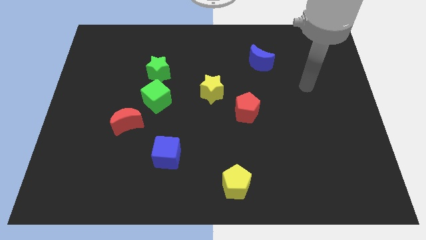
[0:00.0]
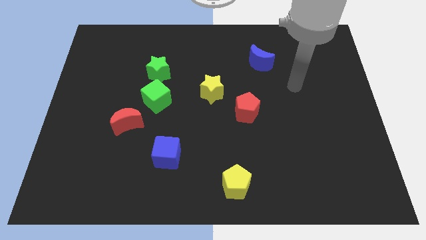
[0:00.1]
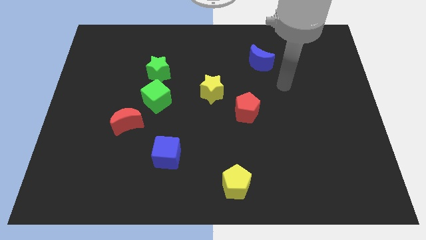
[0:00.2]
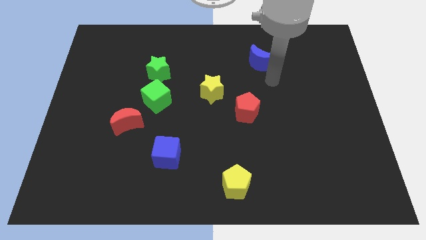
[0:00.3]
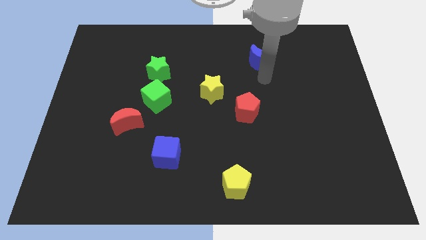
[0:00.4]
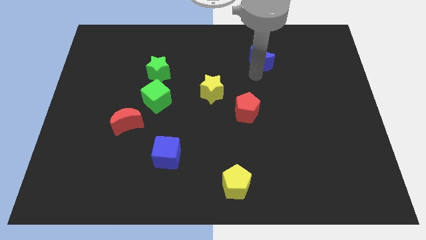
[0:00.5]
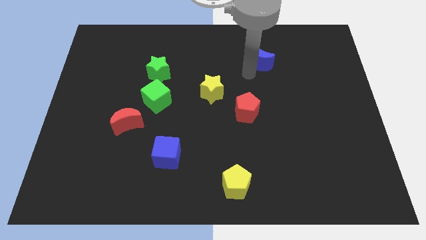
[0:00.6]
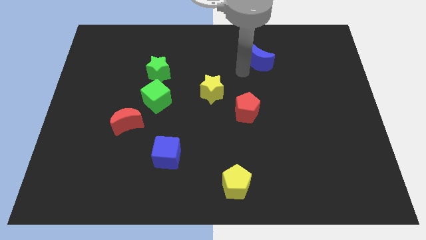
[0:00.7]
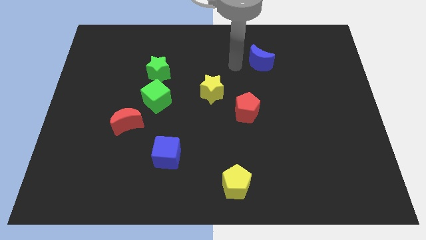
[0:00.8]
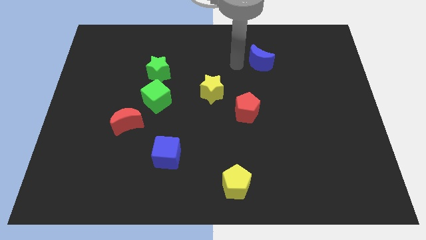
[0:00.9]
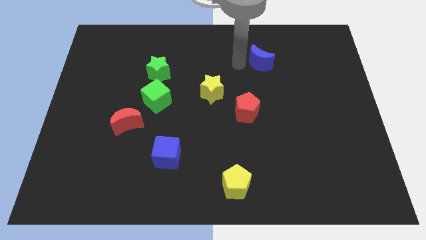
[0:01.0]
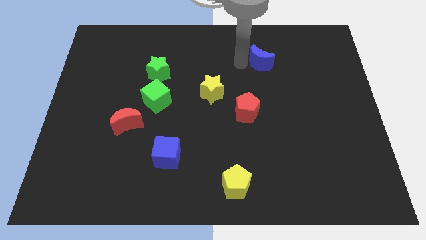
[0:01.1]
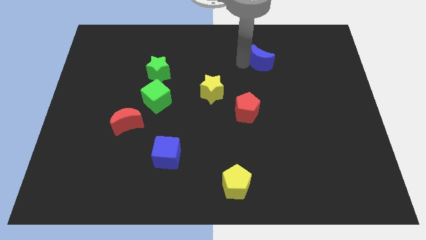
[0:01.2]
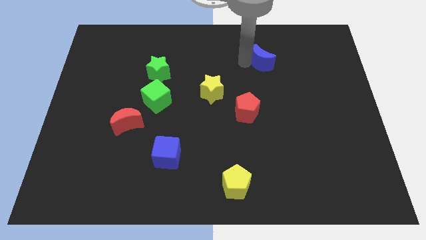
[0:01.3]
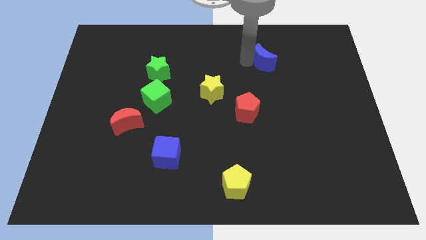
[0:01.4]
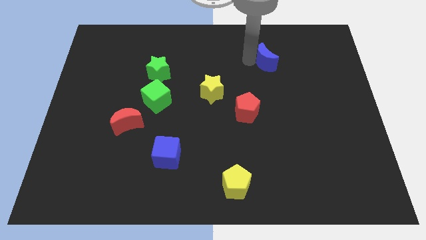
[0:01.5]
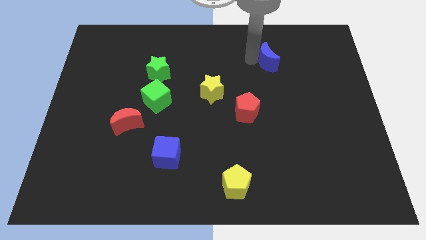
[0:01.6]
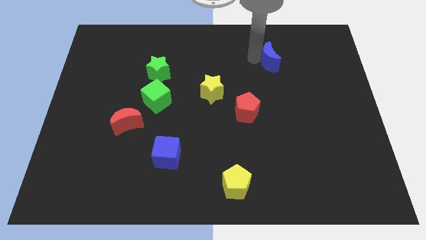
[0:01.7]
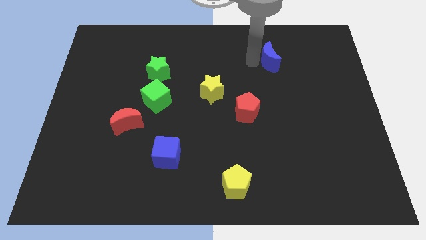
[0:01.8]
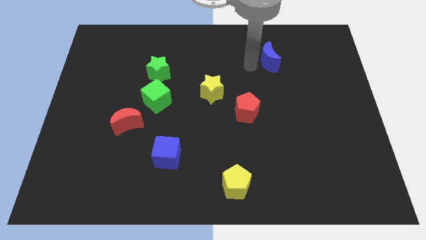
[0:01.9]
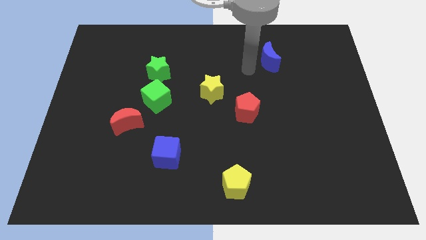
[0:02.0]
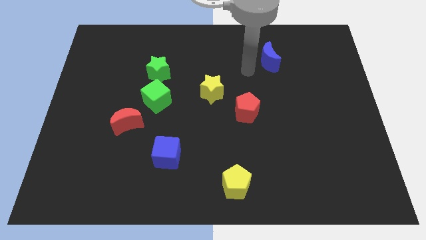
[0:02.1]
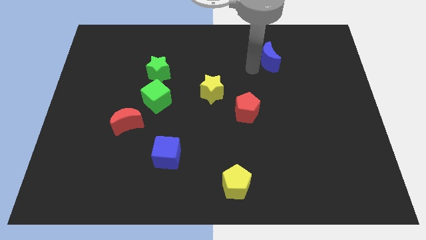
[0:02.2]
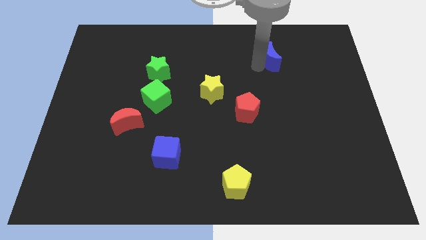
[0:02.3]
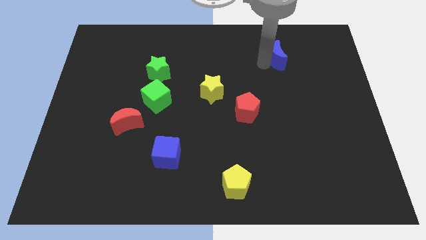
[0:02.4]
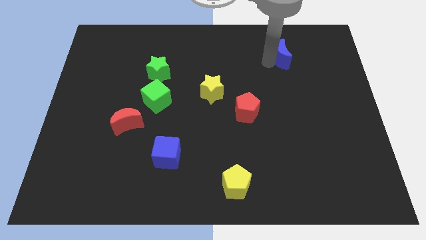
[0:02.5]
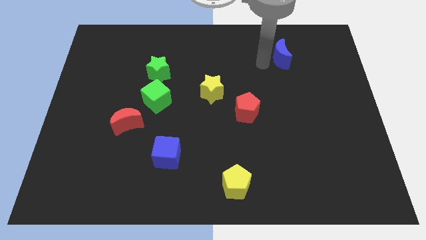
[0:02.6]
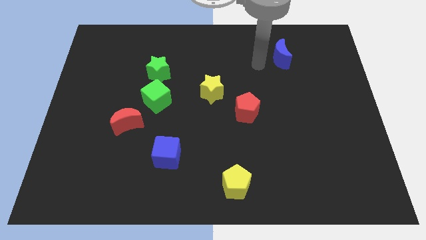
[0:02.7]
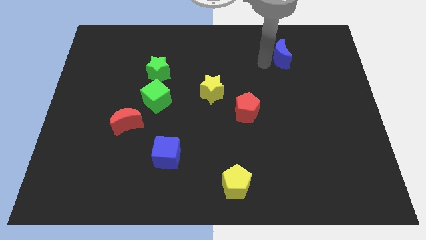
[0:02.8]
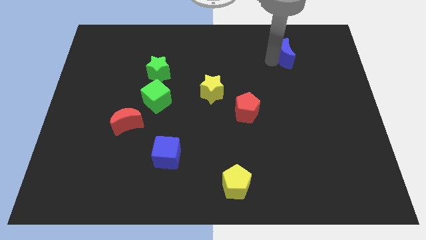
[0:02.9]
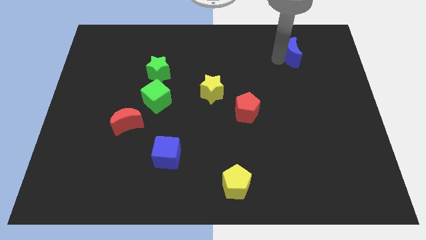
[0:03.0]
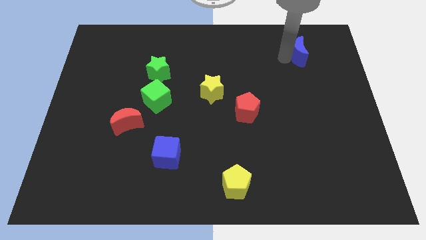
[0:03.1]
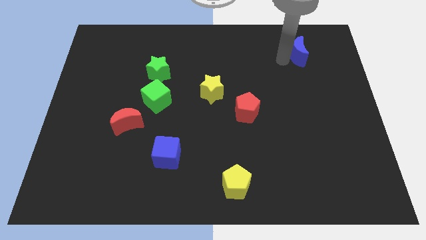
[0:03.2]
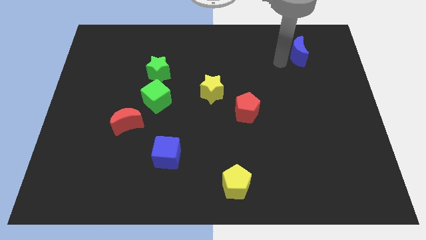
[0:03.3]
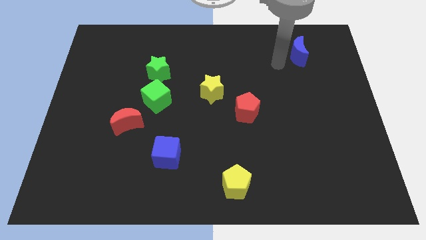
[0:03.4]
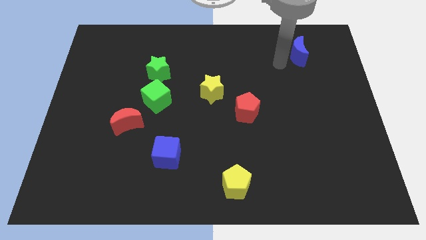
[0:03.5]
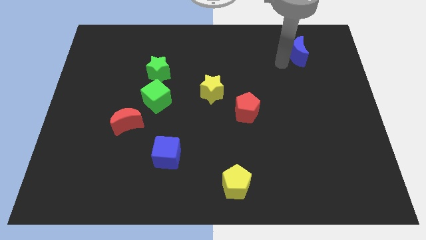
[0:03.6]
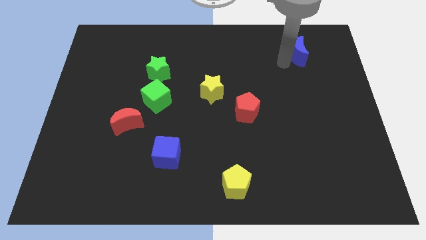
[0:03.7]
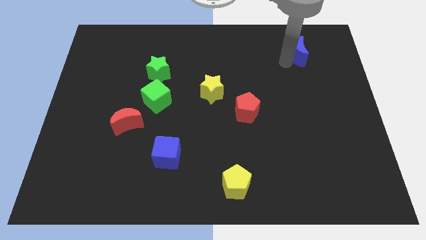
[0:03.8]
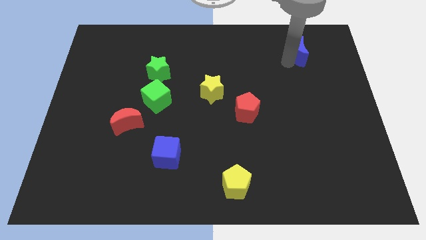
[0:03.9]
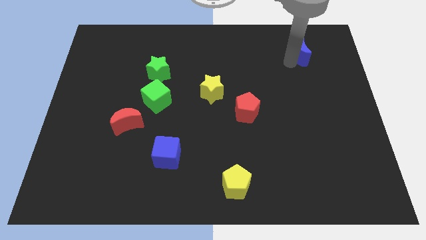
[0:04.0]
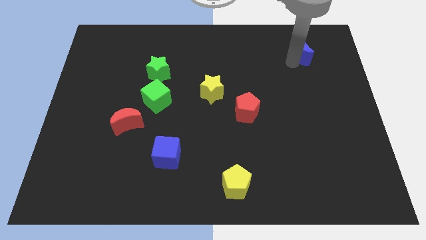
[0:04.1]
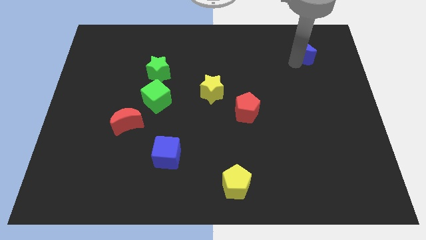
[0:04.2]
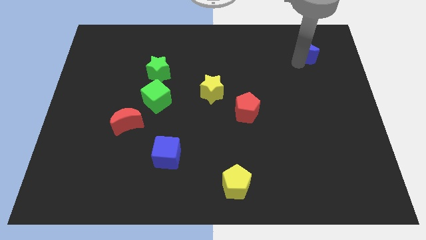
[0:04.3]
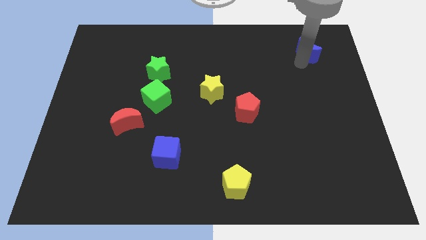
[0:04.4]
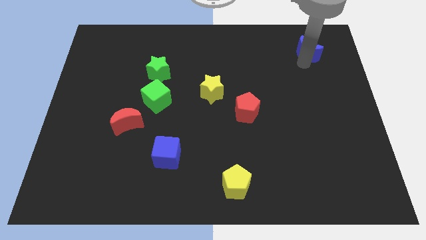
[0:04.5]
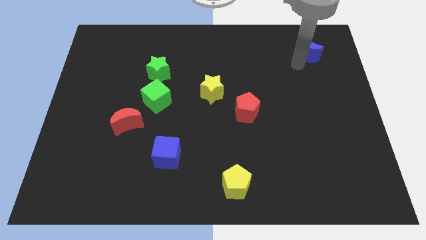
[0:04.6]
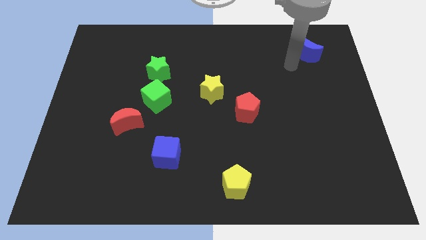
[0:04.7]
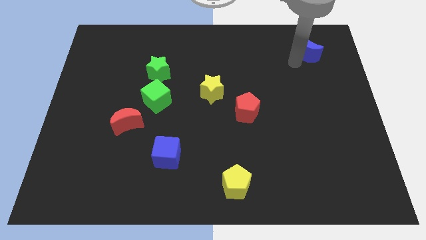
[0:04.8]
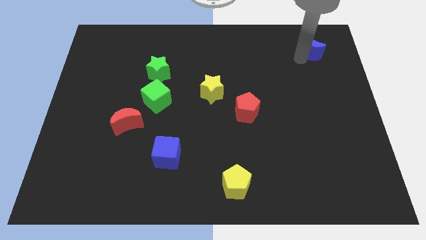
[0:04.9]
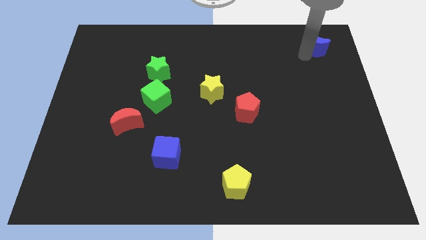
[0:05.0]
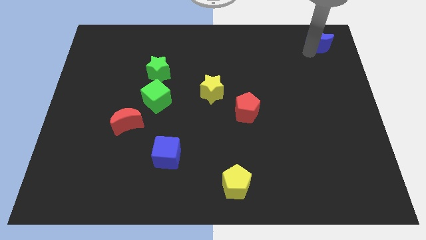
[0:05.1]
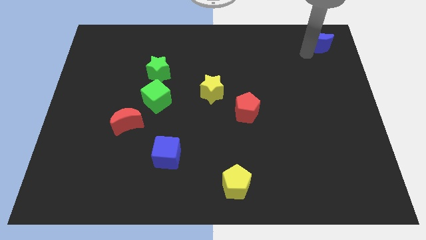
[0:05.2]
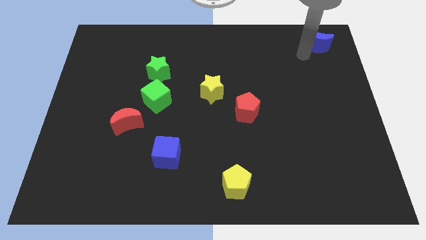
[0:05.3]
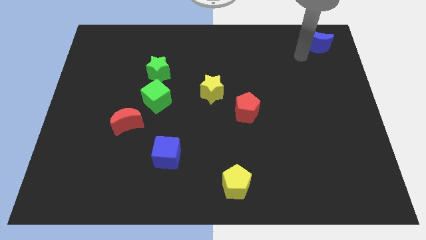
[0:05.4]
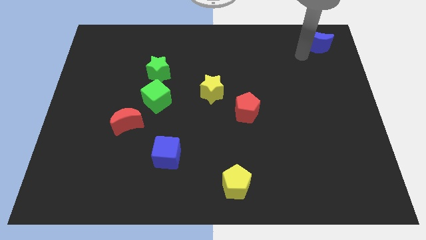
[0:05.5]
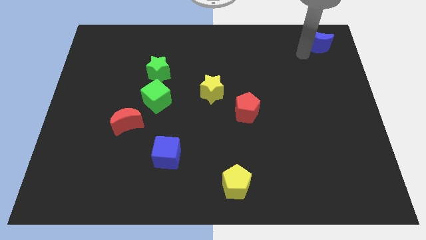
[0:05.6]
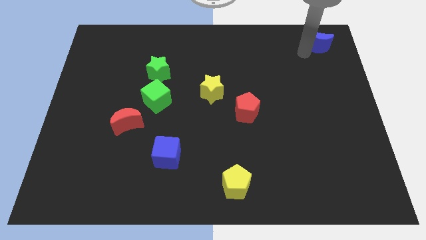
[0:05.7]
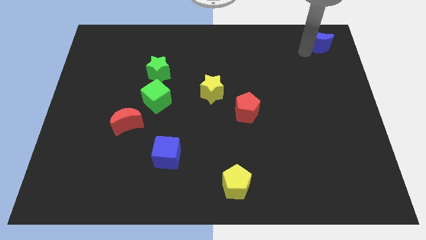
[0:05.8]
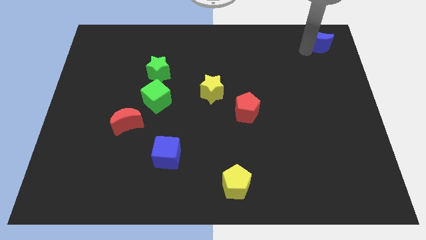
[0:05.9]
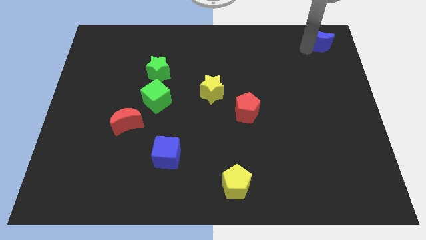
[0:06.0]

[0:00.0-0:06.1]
slide the blue moon to the top right of the board

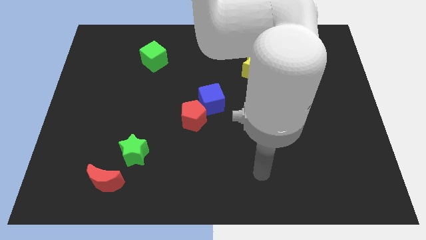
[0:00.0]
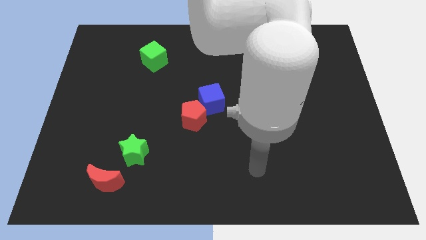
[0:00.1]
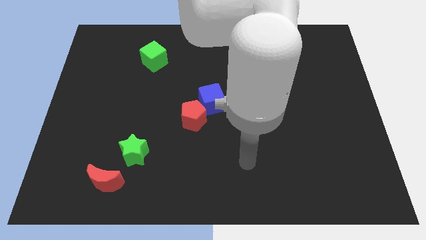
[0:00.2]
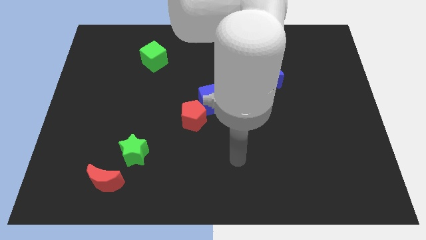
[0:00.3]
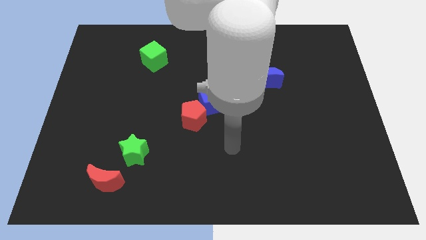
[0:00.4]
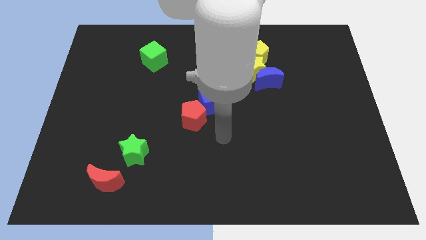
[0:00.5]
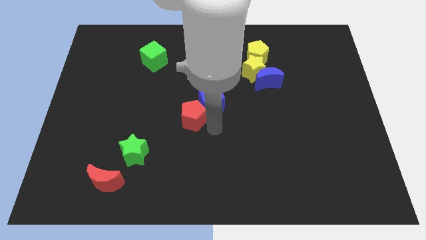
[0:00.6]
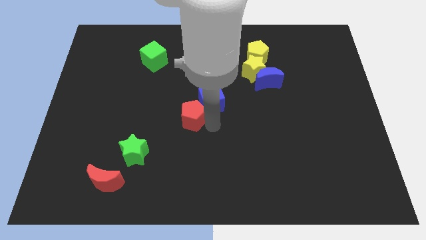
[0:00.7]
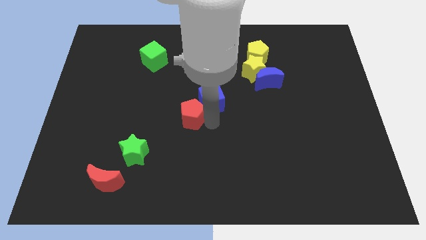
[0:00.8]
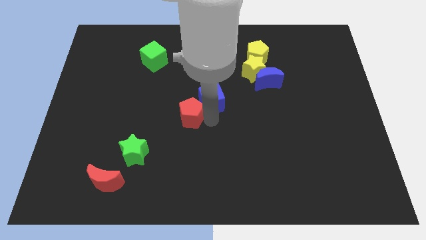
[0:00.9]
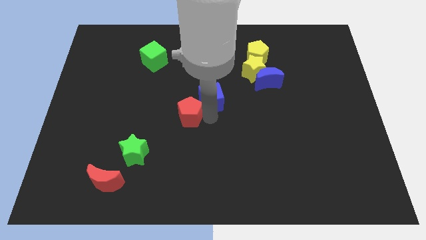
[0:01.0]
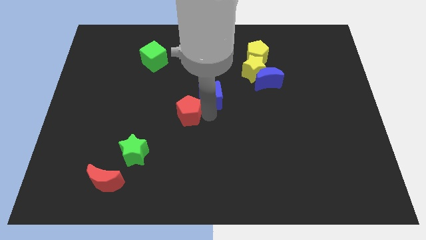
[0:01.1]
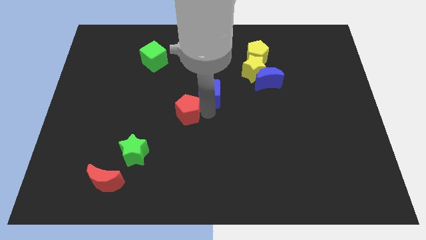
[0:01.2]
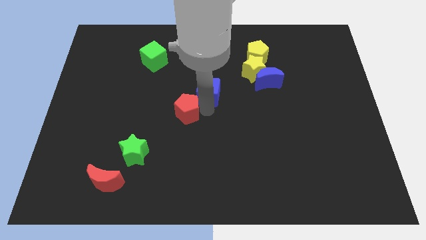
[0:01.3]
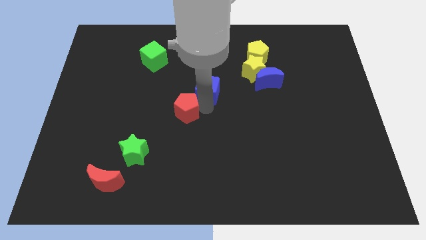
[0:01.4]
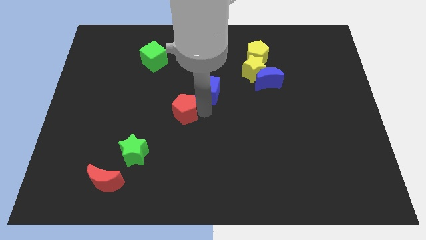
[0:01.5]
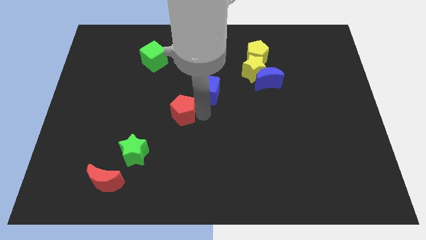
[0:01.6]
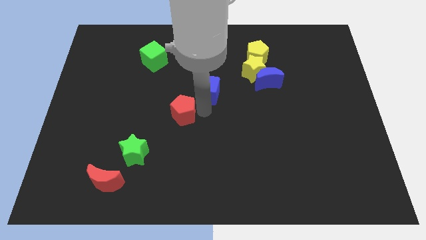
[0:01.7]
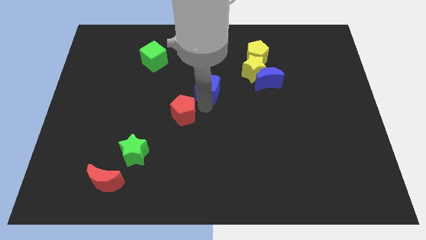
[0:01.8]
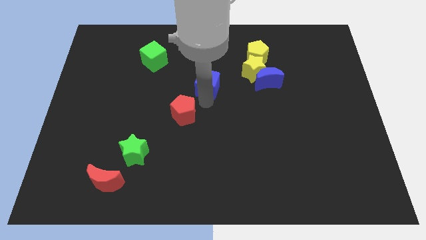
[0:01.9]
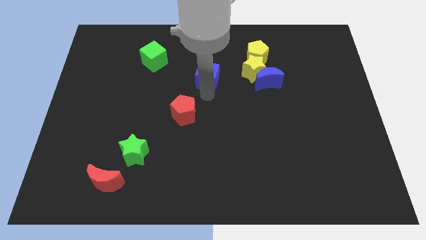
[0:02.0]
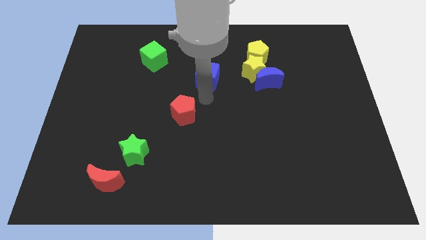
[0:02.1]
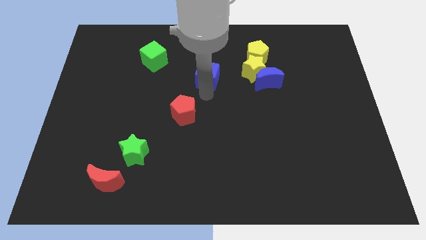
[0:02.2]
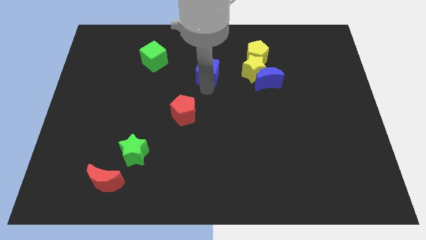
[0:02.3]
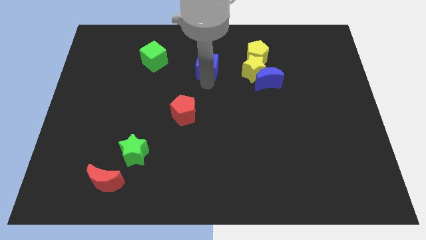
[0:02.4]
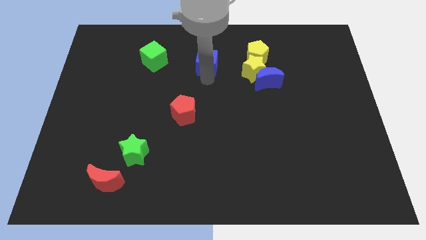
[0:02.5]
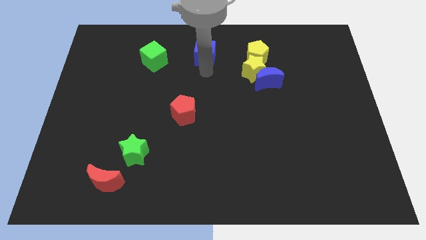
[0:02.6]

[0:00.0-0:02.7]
slide the blue cube to the top side
